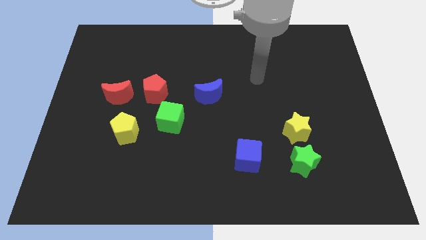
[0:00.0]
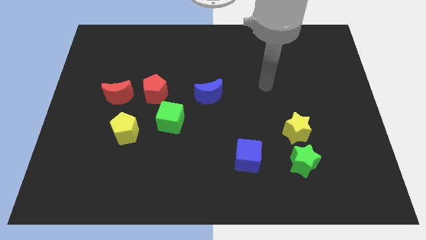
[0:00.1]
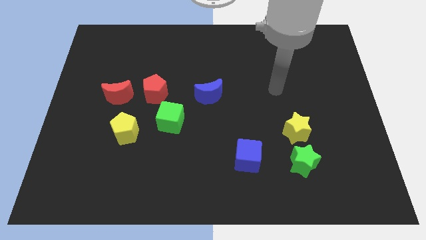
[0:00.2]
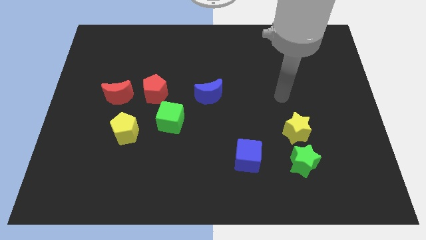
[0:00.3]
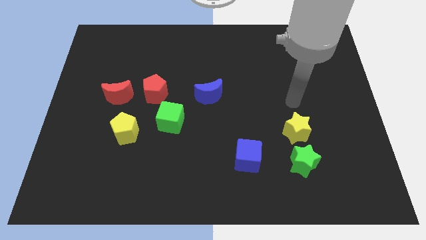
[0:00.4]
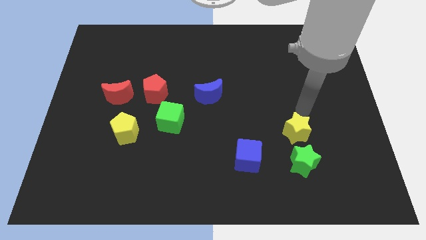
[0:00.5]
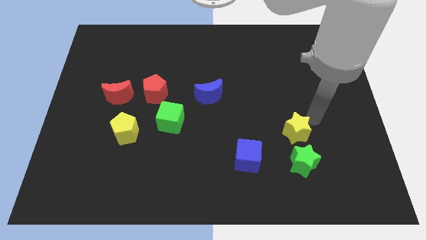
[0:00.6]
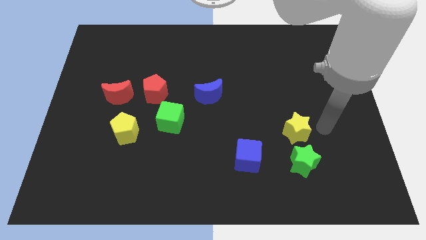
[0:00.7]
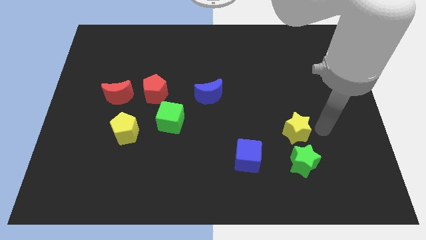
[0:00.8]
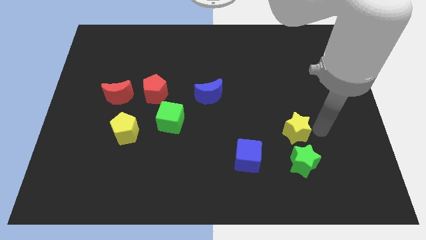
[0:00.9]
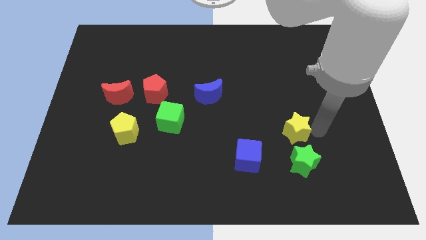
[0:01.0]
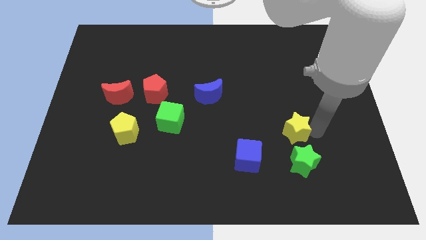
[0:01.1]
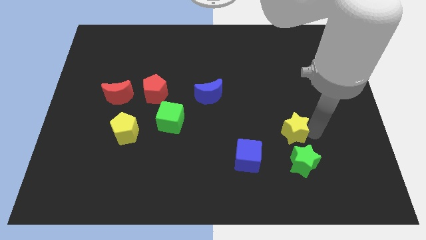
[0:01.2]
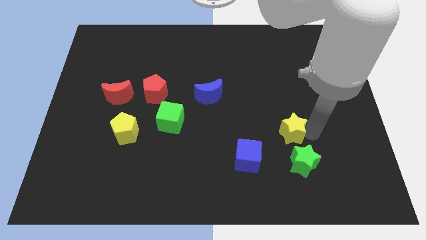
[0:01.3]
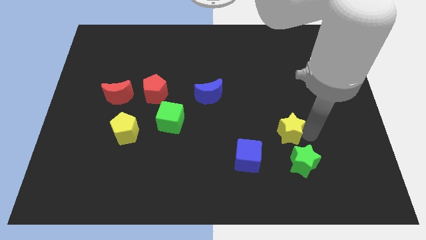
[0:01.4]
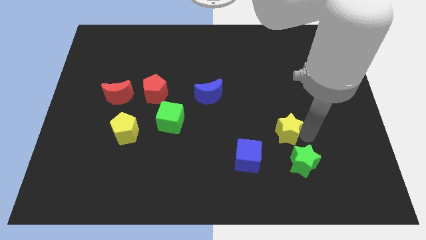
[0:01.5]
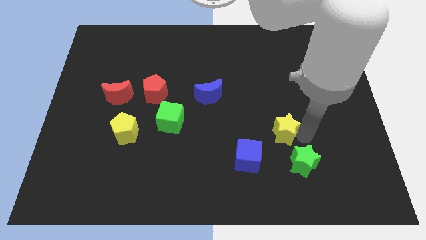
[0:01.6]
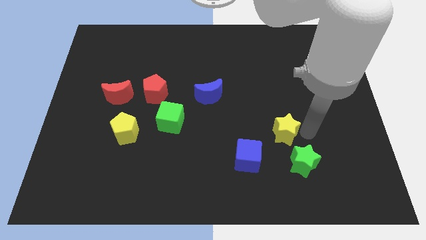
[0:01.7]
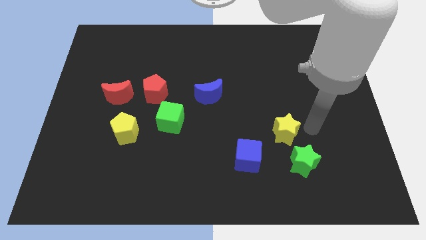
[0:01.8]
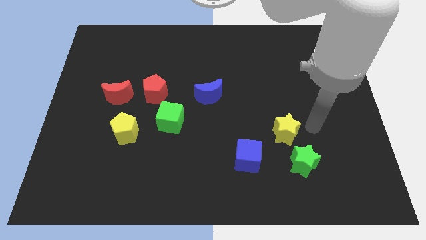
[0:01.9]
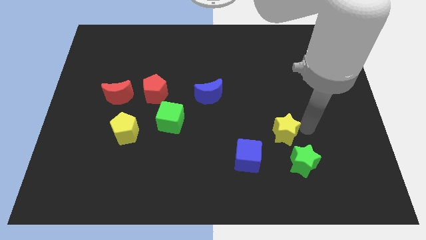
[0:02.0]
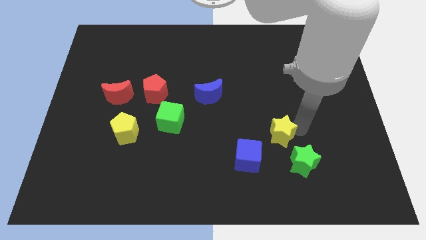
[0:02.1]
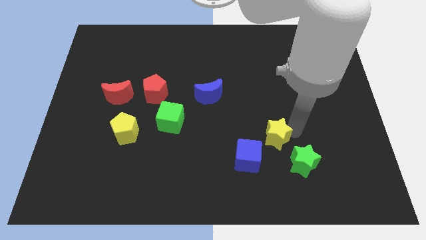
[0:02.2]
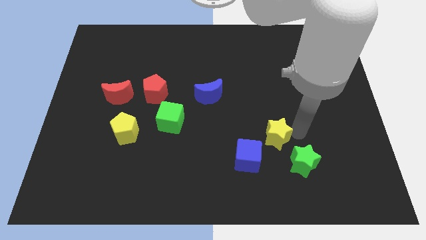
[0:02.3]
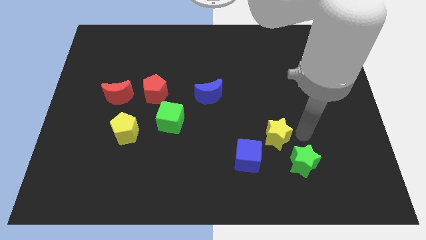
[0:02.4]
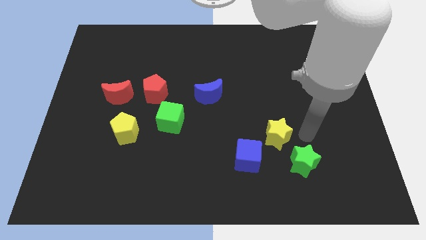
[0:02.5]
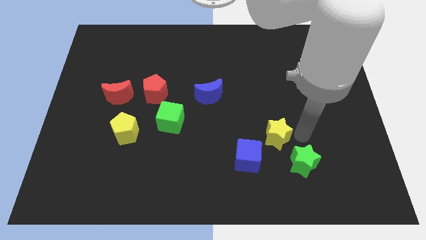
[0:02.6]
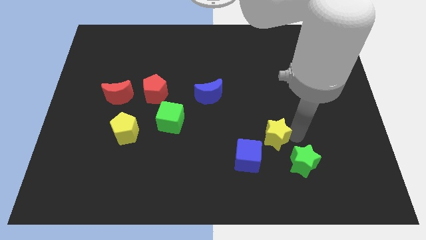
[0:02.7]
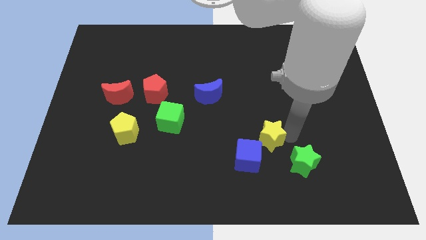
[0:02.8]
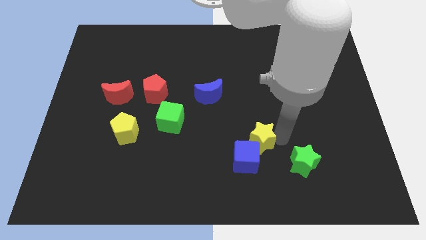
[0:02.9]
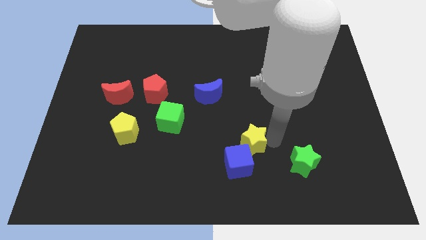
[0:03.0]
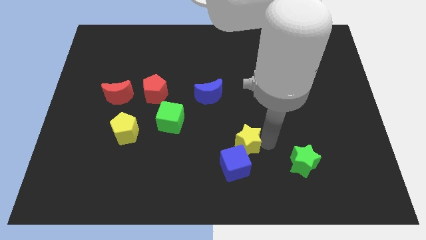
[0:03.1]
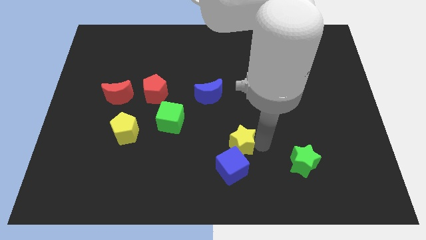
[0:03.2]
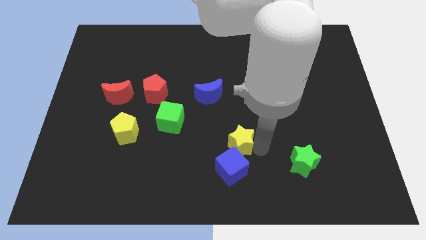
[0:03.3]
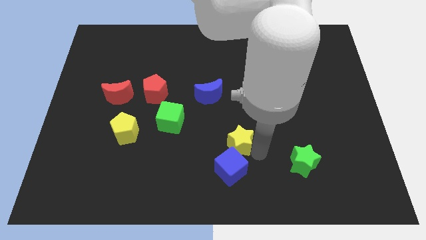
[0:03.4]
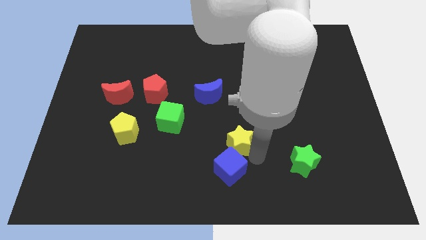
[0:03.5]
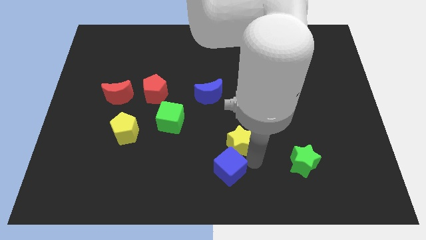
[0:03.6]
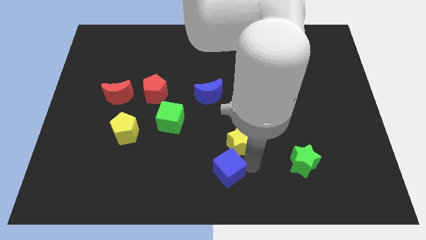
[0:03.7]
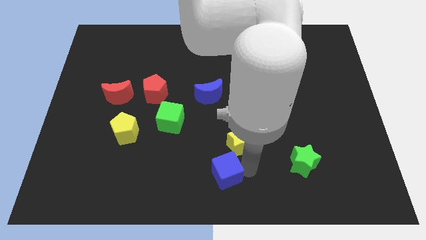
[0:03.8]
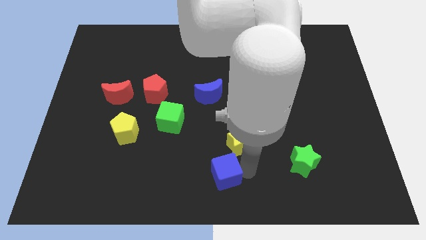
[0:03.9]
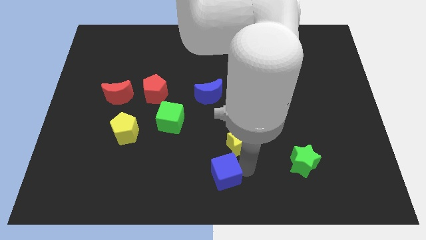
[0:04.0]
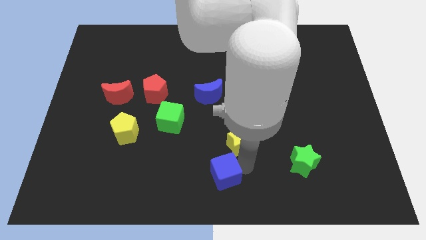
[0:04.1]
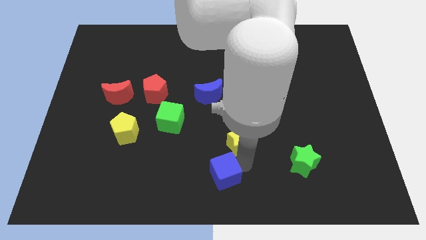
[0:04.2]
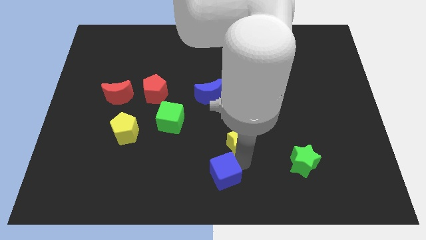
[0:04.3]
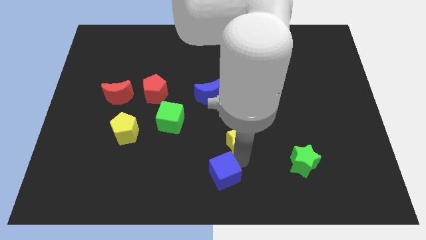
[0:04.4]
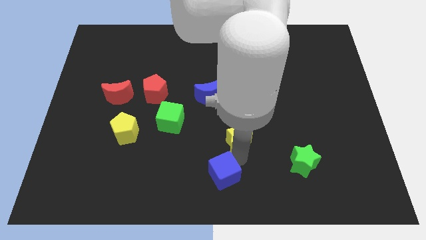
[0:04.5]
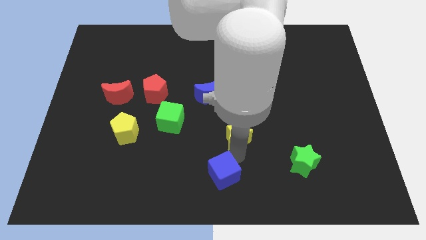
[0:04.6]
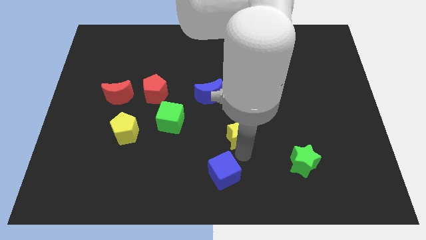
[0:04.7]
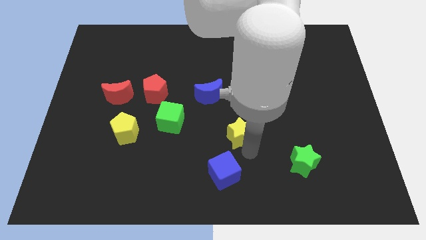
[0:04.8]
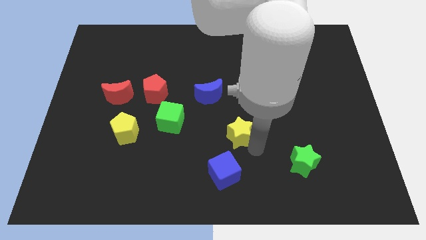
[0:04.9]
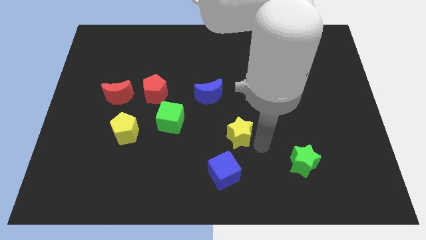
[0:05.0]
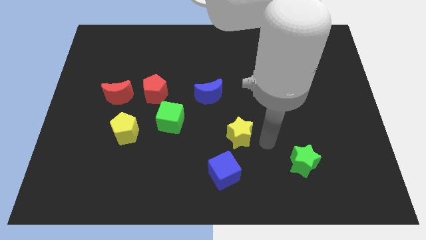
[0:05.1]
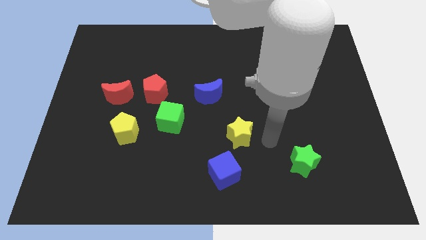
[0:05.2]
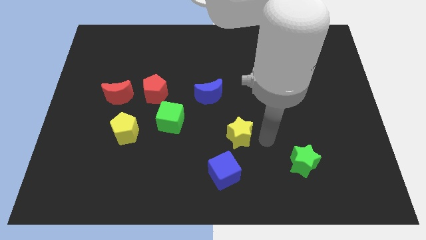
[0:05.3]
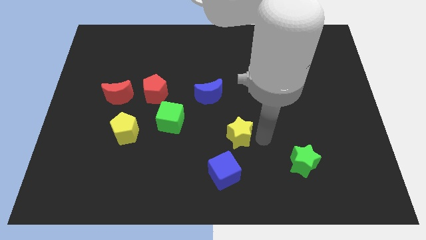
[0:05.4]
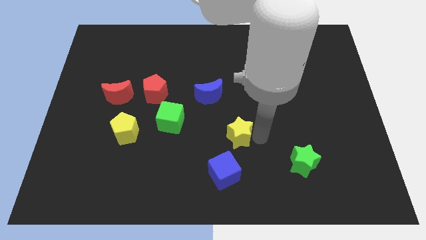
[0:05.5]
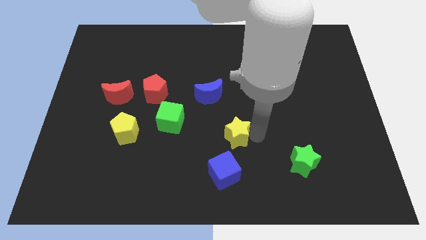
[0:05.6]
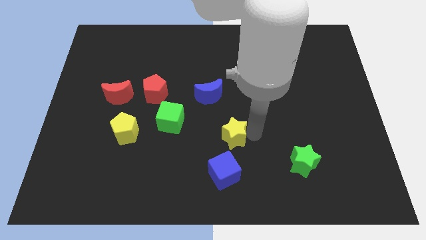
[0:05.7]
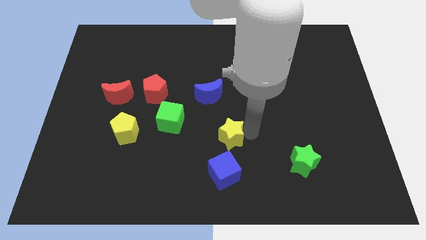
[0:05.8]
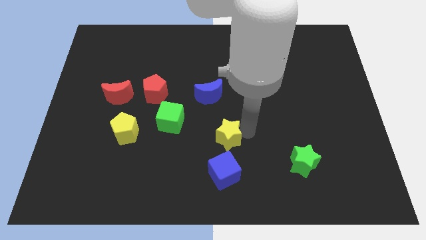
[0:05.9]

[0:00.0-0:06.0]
slide the yellow star to the bottom side of the blue moon

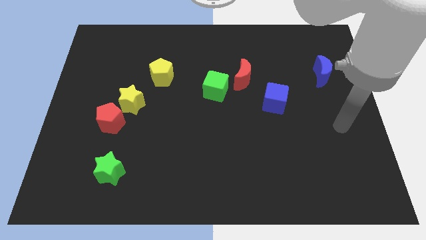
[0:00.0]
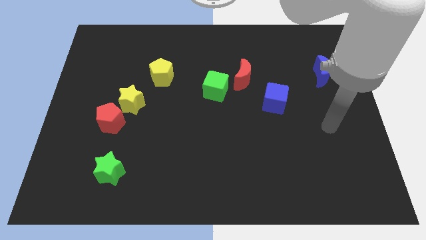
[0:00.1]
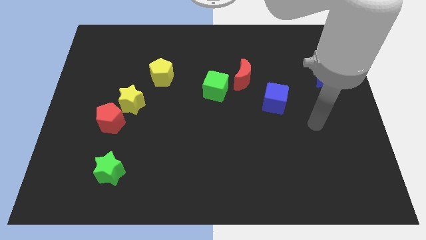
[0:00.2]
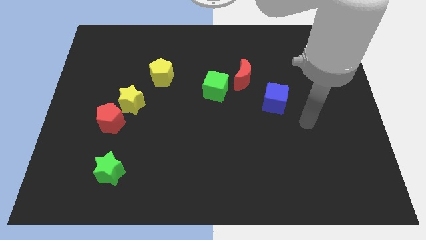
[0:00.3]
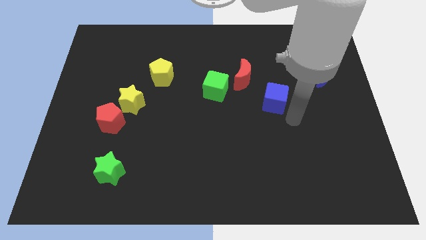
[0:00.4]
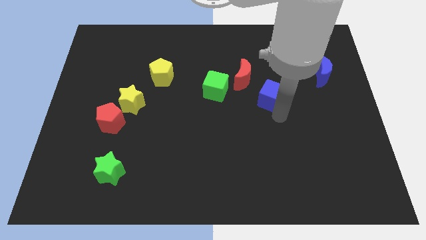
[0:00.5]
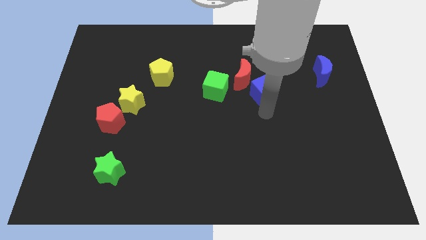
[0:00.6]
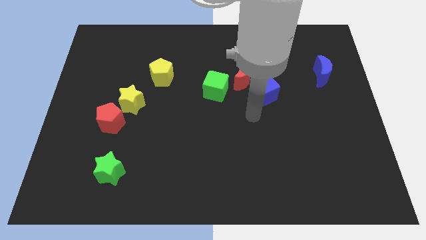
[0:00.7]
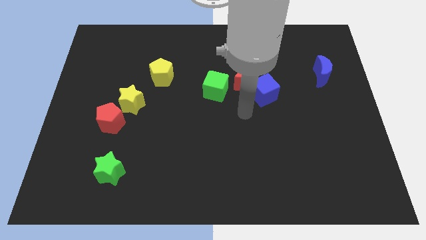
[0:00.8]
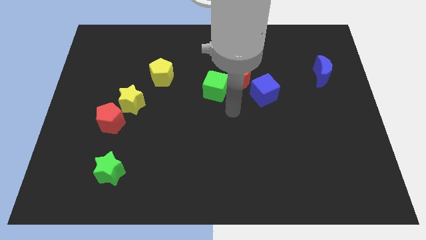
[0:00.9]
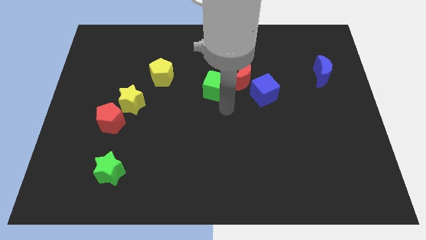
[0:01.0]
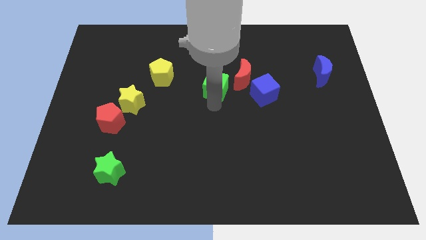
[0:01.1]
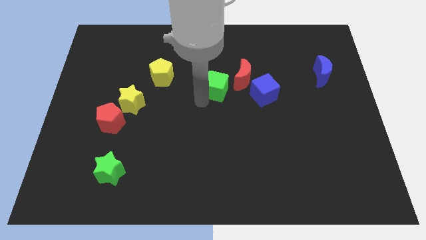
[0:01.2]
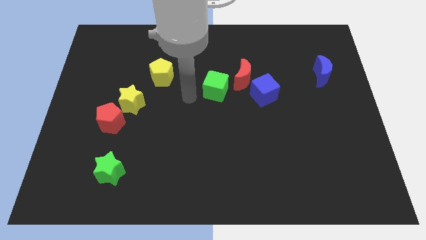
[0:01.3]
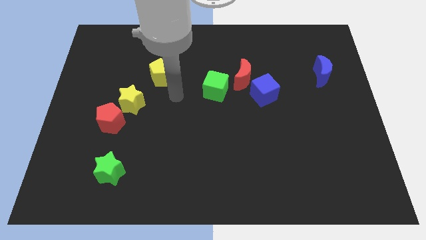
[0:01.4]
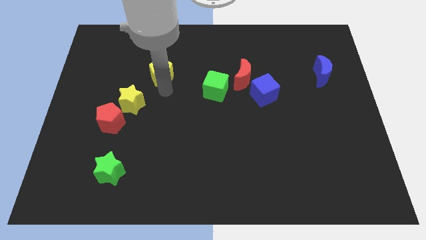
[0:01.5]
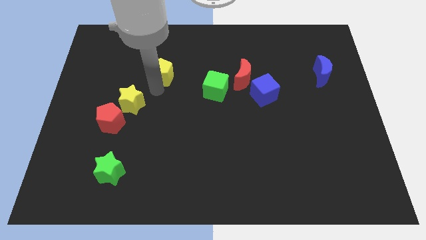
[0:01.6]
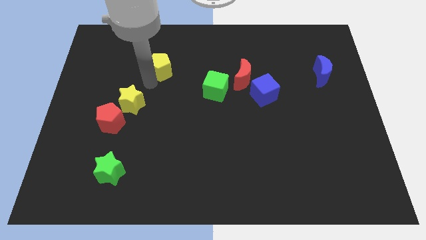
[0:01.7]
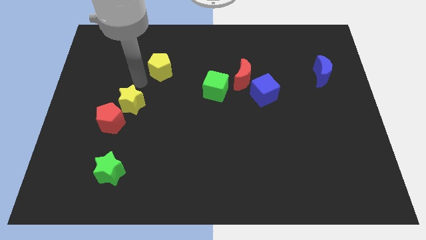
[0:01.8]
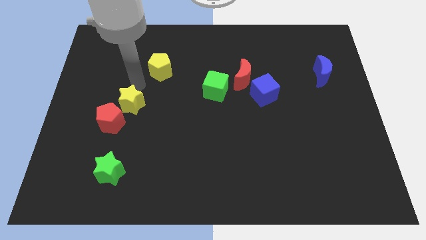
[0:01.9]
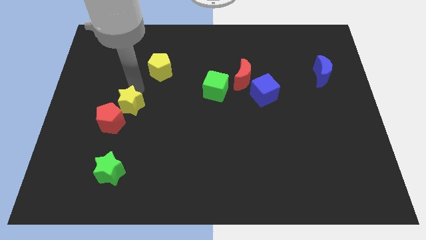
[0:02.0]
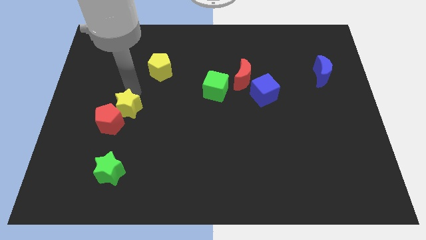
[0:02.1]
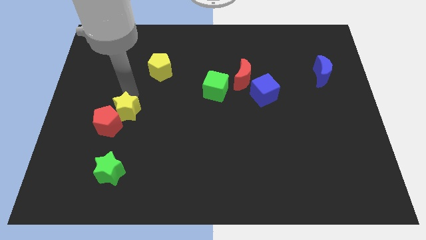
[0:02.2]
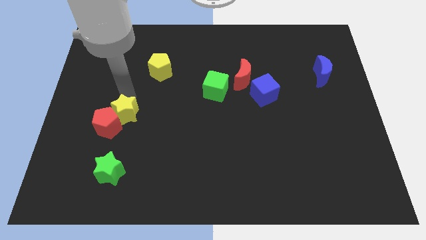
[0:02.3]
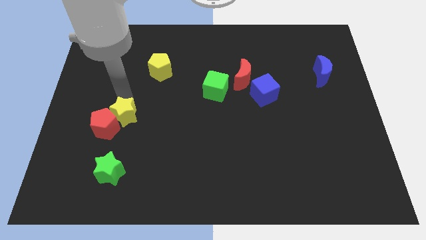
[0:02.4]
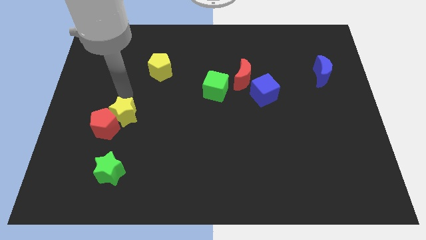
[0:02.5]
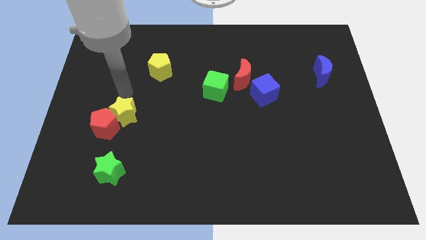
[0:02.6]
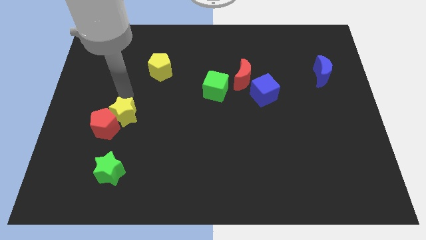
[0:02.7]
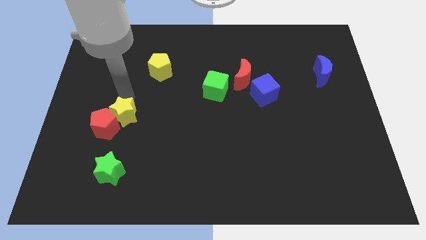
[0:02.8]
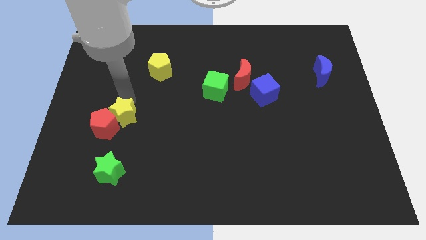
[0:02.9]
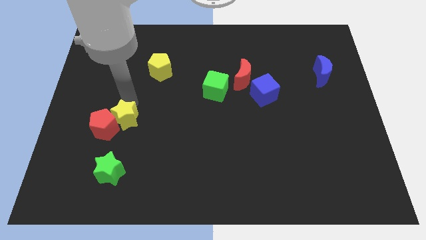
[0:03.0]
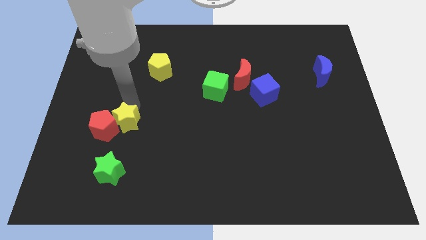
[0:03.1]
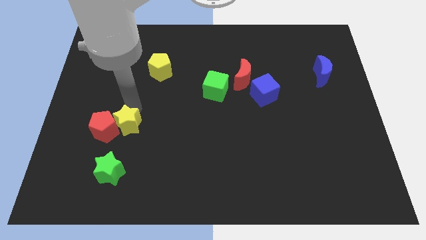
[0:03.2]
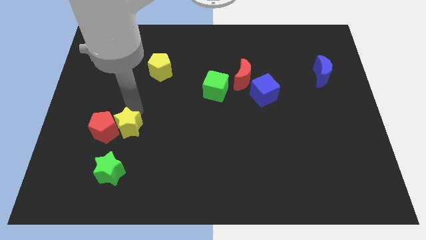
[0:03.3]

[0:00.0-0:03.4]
push the yellow star to the bottom right of the red pentagon
